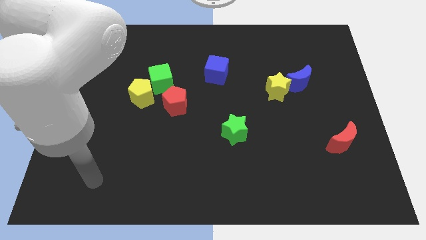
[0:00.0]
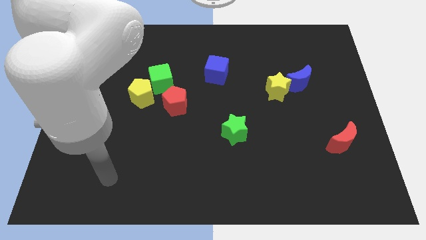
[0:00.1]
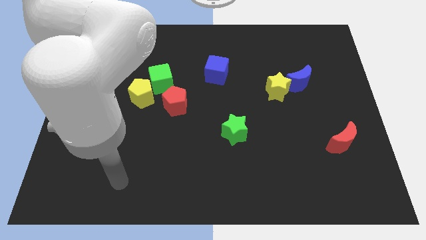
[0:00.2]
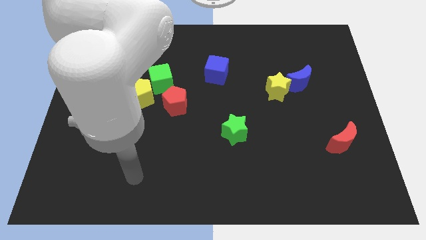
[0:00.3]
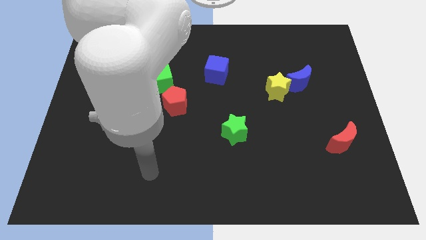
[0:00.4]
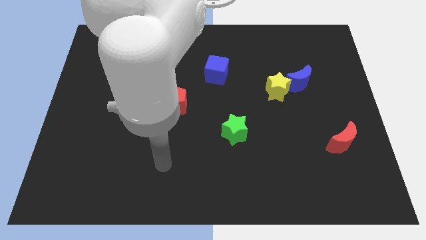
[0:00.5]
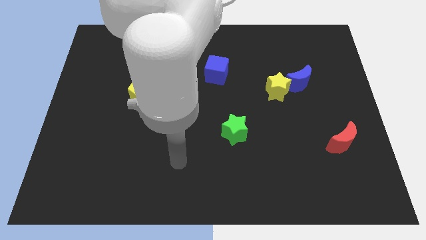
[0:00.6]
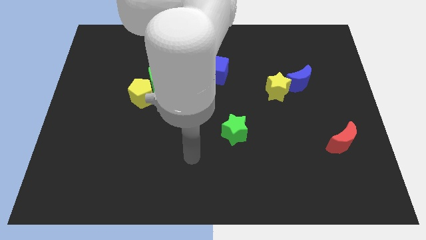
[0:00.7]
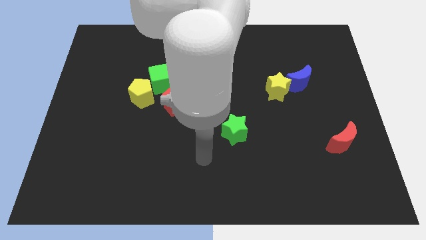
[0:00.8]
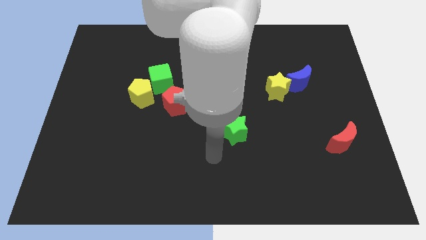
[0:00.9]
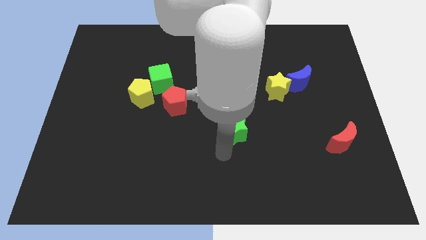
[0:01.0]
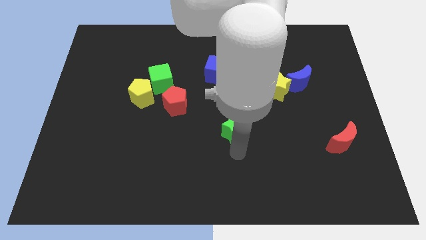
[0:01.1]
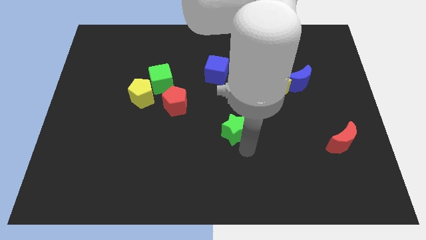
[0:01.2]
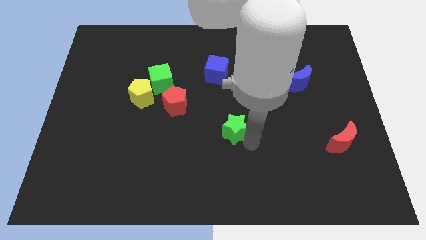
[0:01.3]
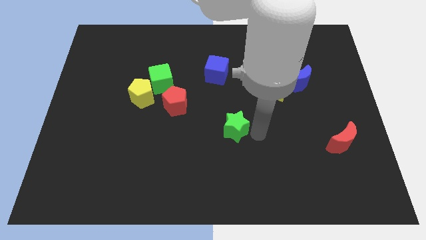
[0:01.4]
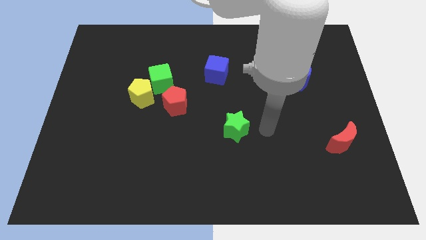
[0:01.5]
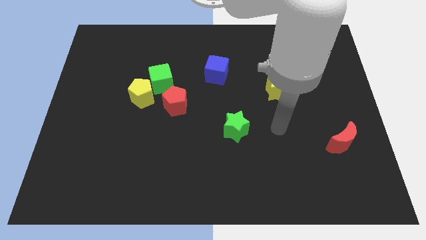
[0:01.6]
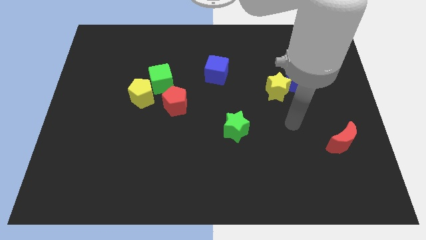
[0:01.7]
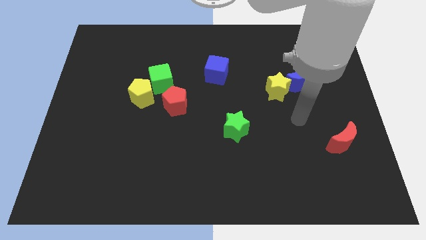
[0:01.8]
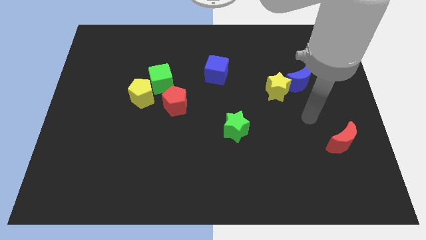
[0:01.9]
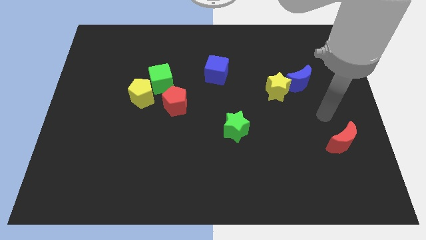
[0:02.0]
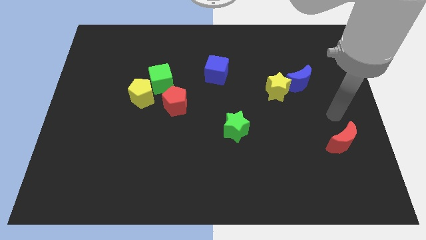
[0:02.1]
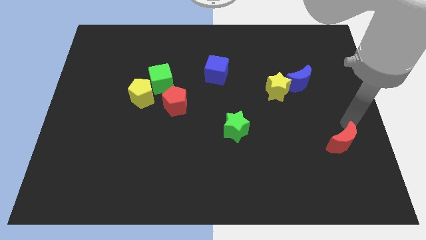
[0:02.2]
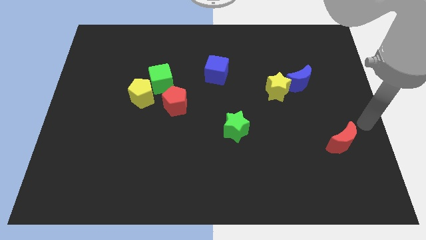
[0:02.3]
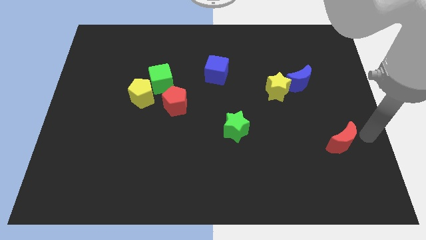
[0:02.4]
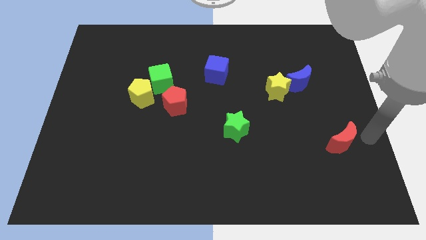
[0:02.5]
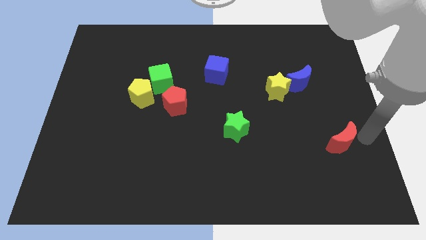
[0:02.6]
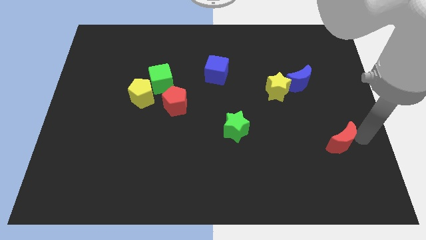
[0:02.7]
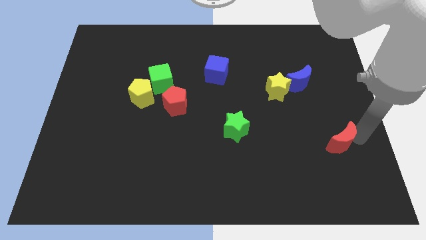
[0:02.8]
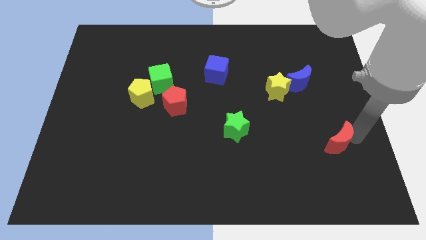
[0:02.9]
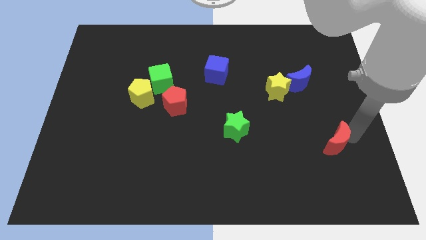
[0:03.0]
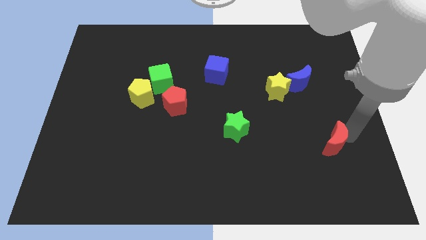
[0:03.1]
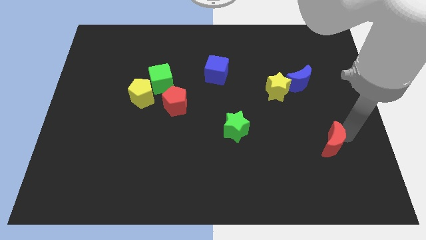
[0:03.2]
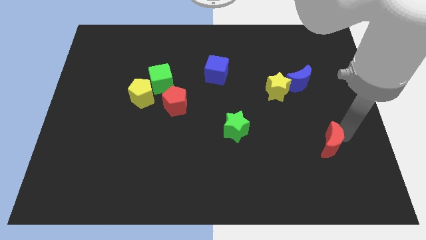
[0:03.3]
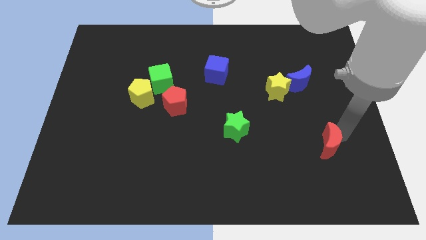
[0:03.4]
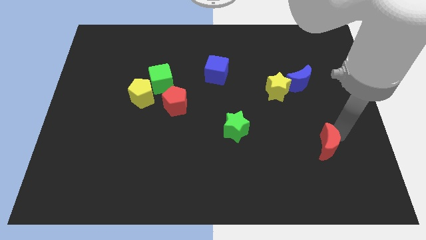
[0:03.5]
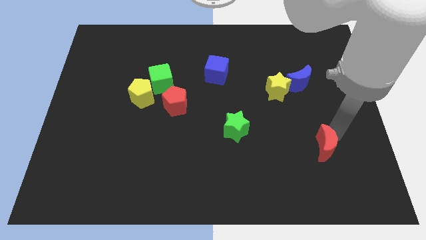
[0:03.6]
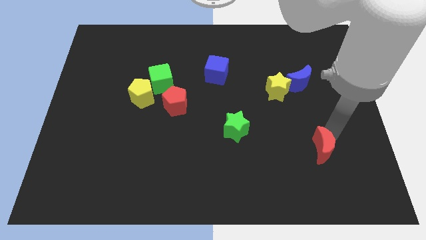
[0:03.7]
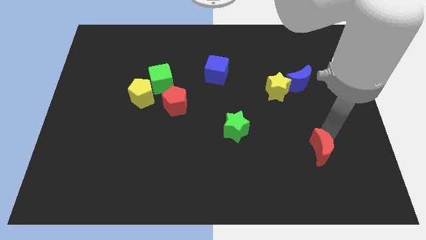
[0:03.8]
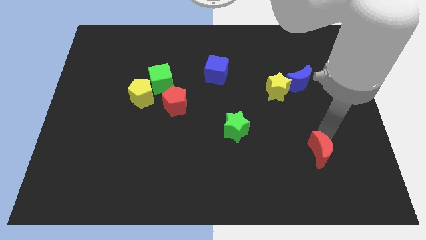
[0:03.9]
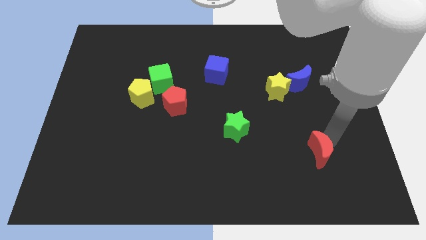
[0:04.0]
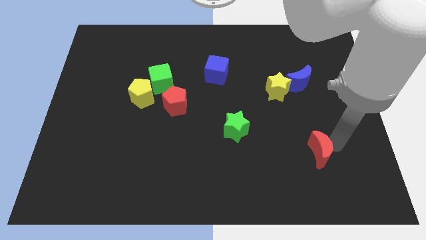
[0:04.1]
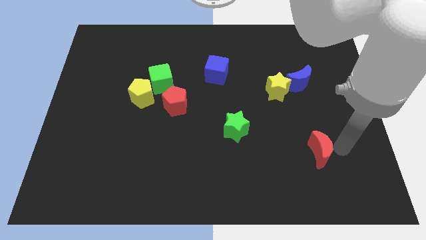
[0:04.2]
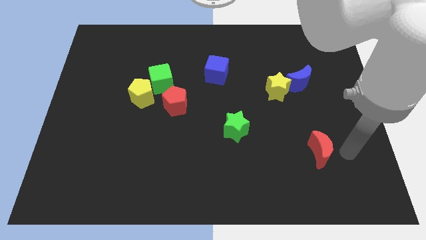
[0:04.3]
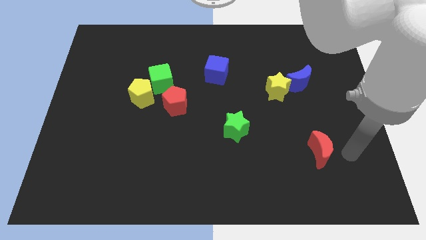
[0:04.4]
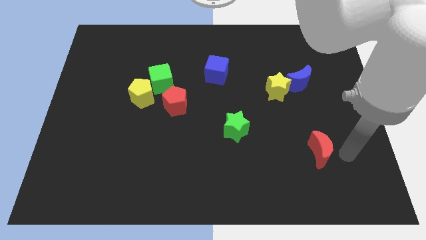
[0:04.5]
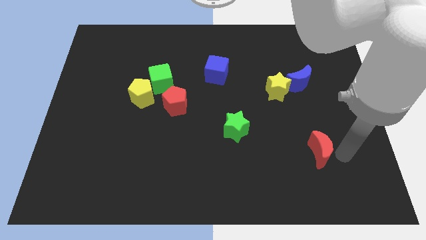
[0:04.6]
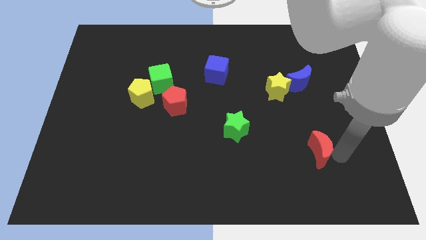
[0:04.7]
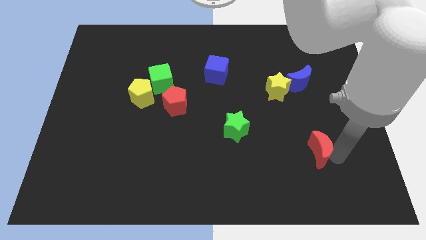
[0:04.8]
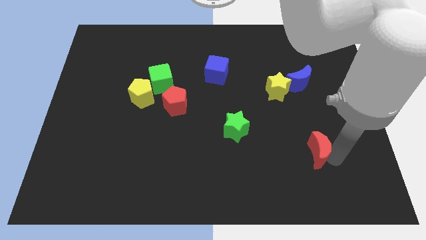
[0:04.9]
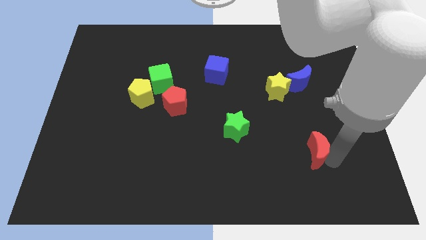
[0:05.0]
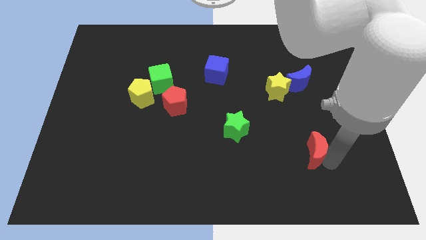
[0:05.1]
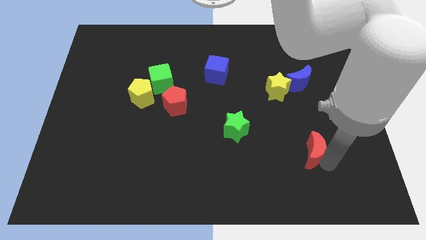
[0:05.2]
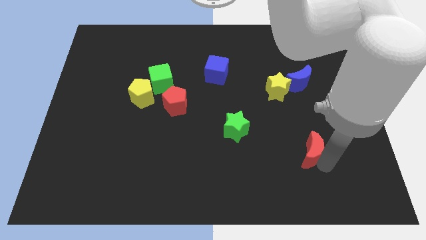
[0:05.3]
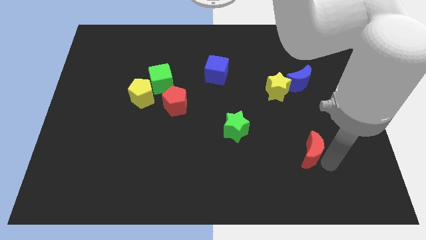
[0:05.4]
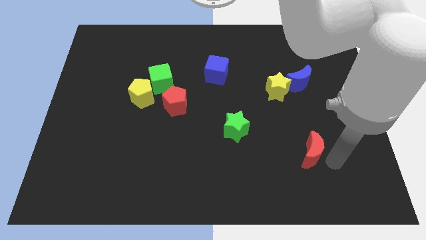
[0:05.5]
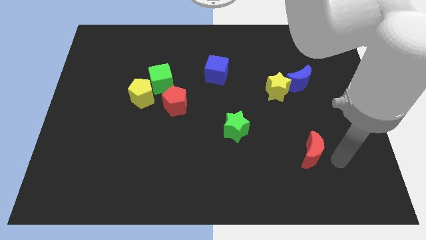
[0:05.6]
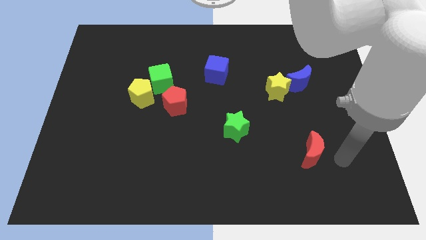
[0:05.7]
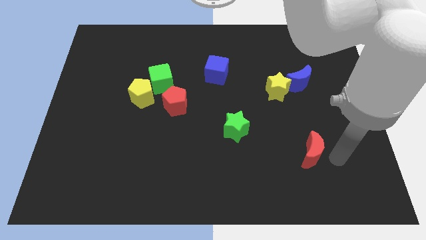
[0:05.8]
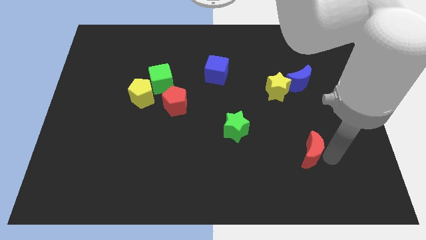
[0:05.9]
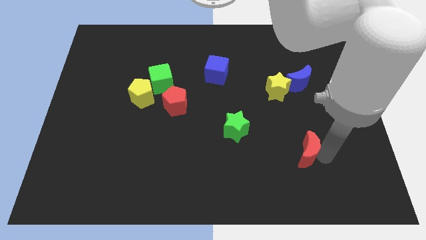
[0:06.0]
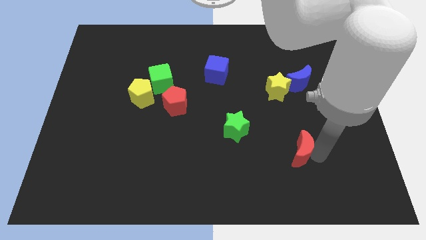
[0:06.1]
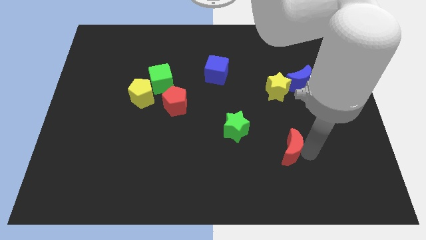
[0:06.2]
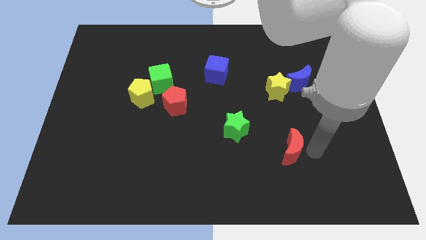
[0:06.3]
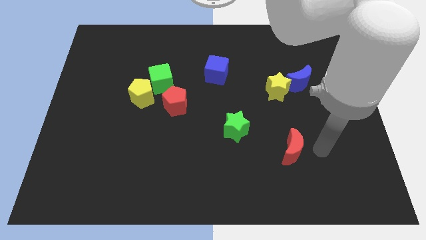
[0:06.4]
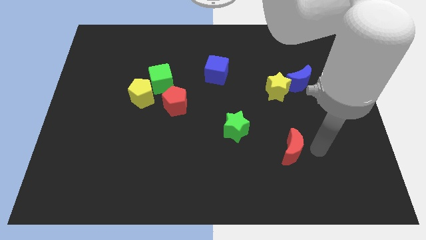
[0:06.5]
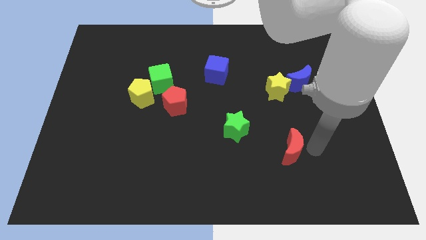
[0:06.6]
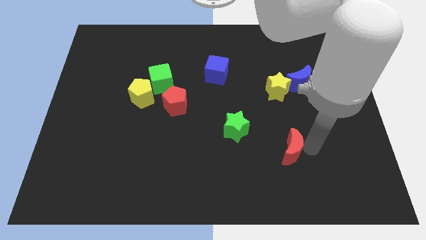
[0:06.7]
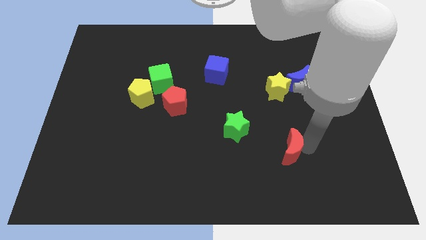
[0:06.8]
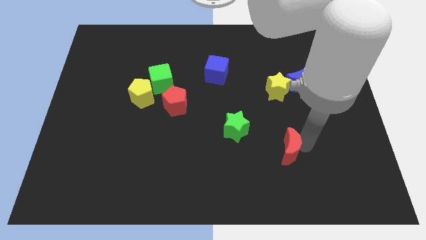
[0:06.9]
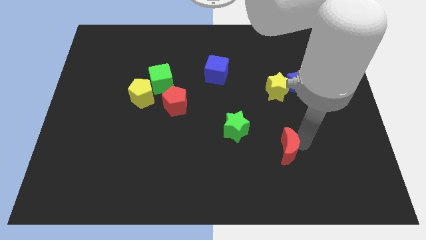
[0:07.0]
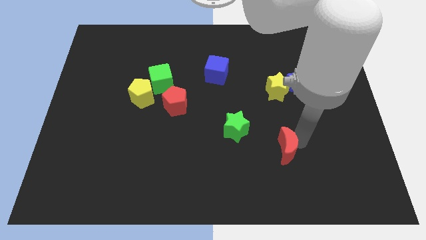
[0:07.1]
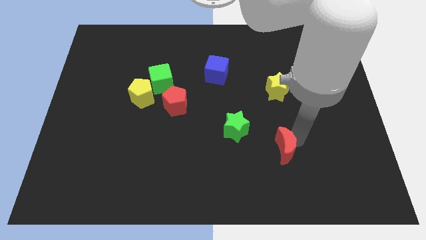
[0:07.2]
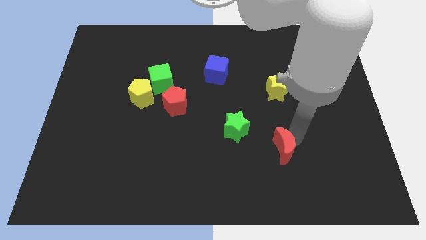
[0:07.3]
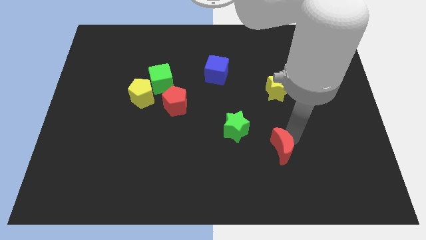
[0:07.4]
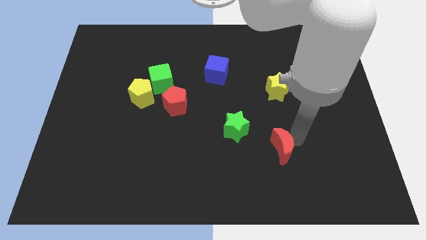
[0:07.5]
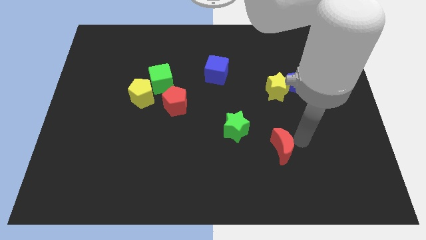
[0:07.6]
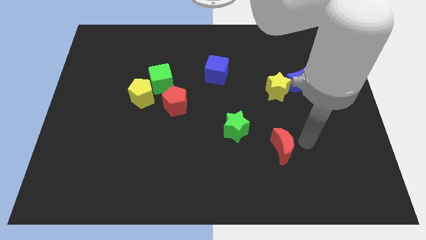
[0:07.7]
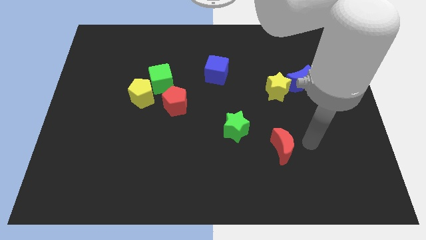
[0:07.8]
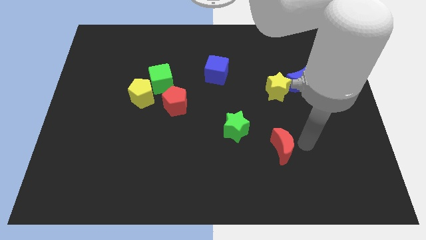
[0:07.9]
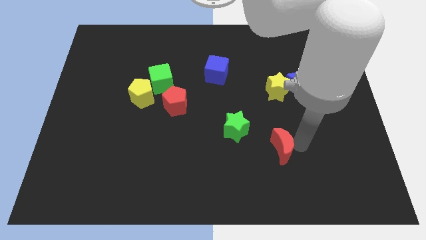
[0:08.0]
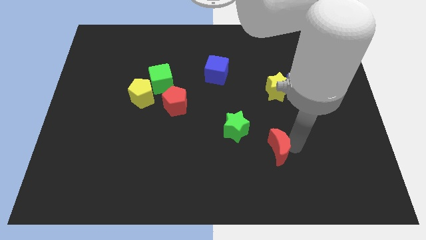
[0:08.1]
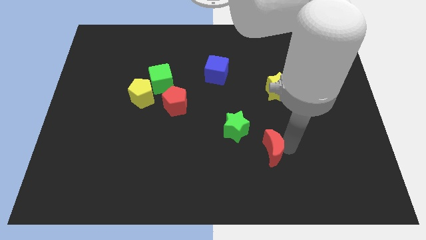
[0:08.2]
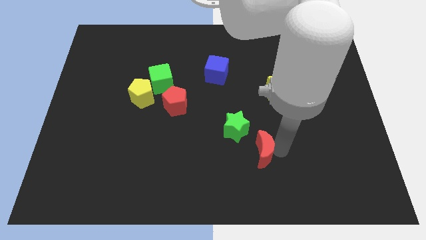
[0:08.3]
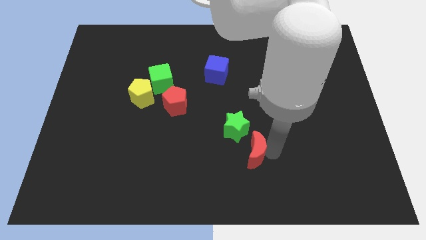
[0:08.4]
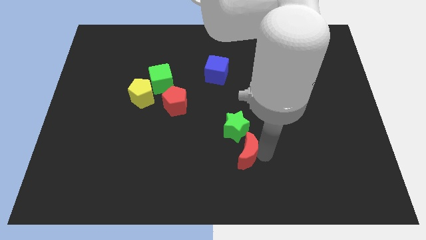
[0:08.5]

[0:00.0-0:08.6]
move the red moon to the left
